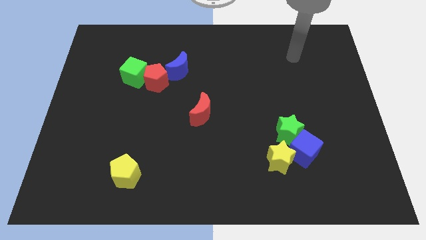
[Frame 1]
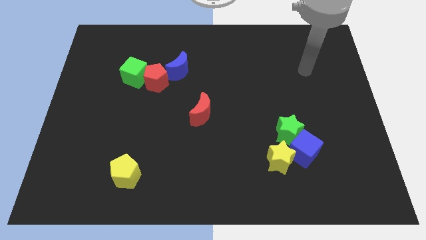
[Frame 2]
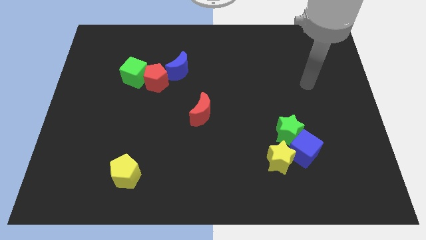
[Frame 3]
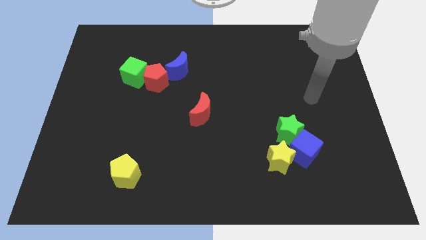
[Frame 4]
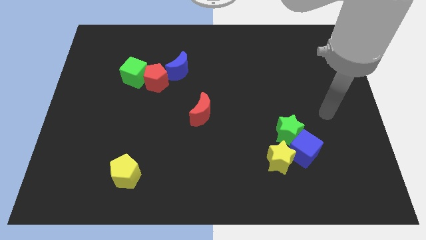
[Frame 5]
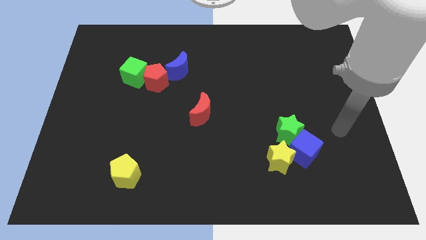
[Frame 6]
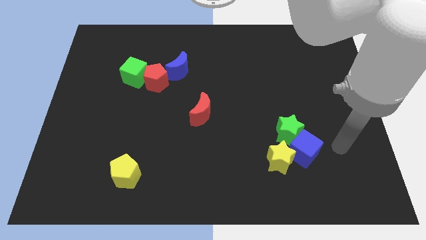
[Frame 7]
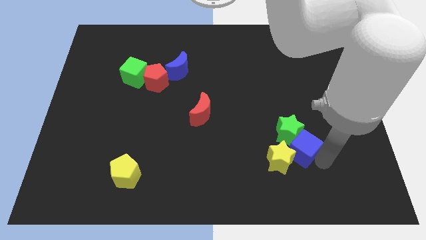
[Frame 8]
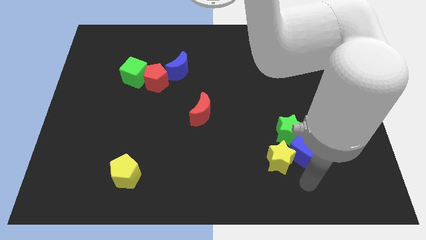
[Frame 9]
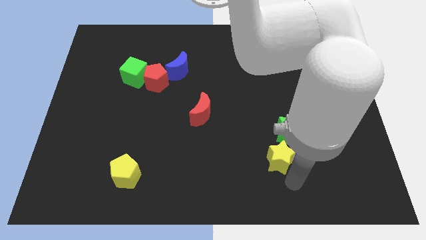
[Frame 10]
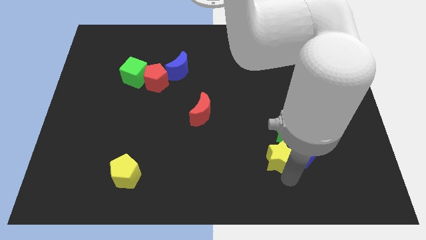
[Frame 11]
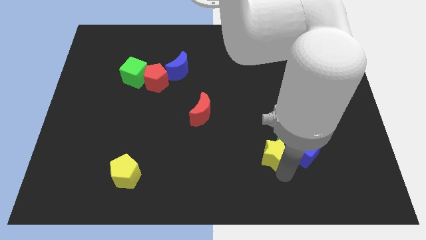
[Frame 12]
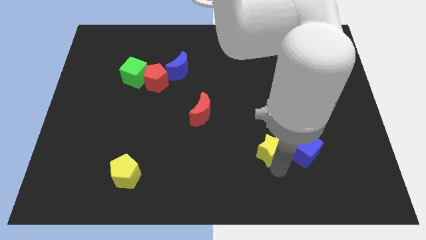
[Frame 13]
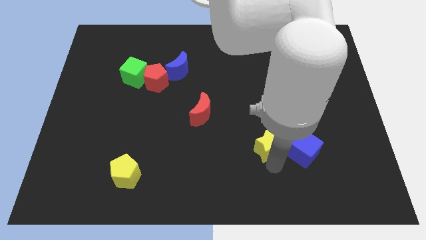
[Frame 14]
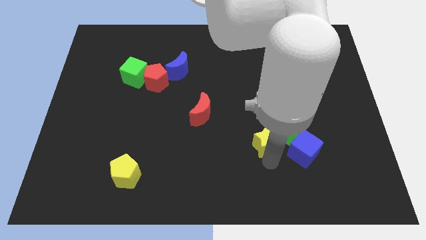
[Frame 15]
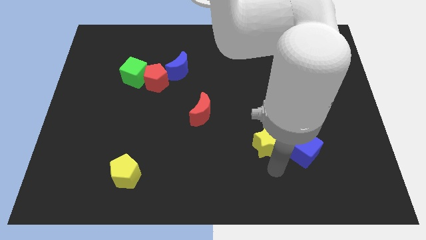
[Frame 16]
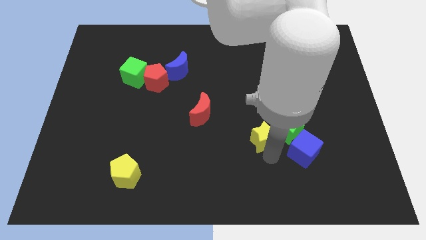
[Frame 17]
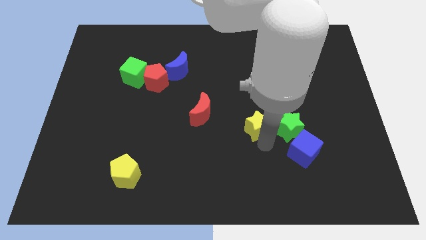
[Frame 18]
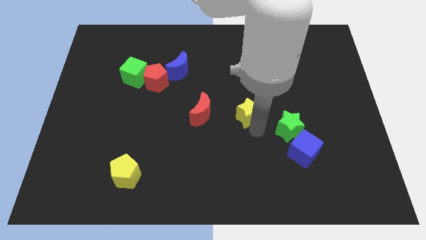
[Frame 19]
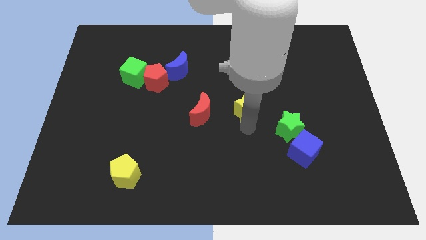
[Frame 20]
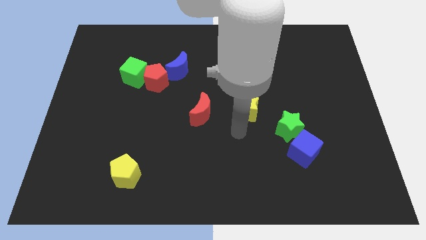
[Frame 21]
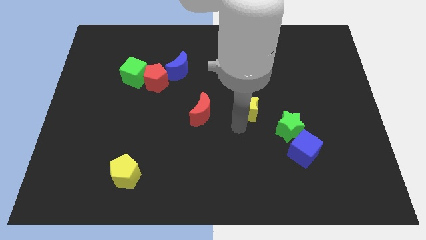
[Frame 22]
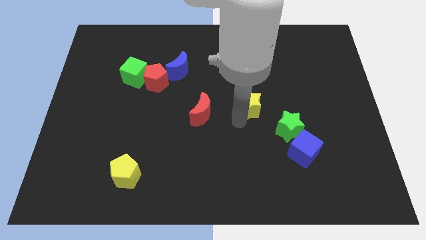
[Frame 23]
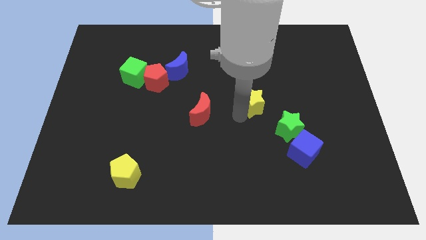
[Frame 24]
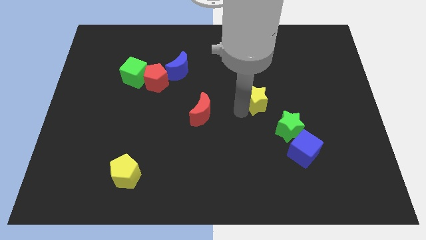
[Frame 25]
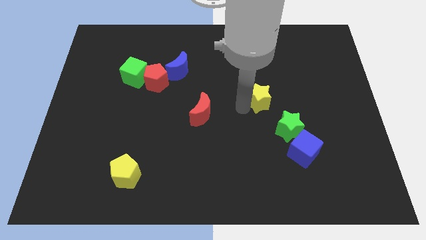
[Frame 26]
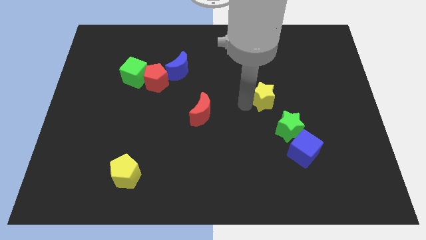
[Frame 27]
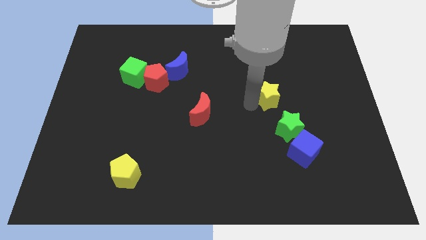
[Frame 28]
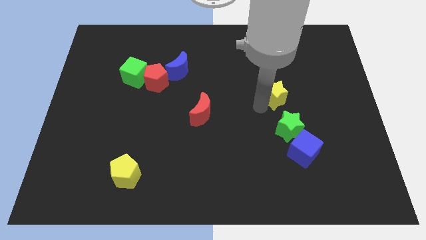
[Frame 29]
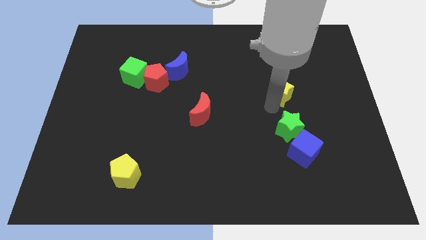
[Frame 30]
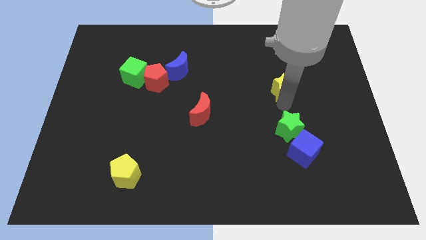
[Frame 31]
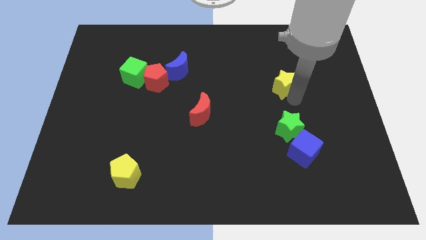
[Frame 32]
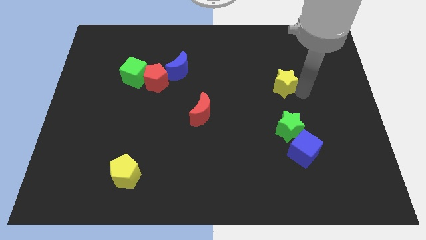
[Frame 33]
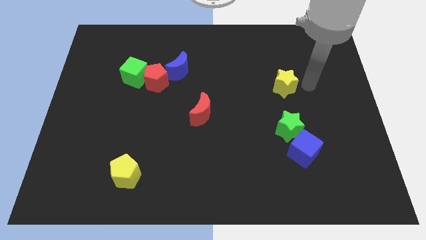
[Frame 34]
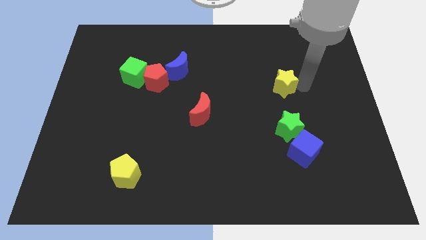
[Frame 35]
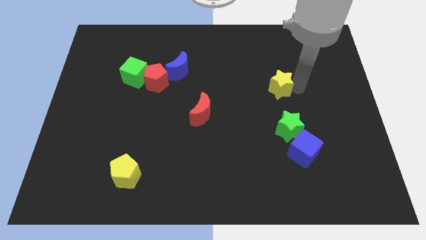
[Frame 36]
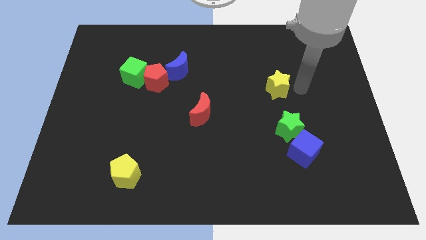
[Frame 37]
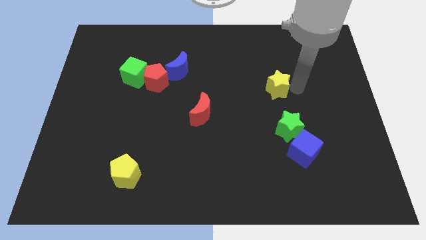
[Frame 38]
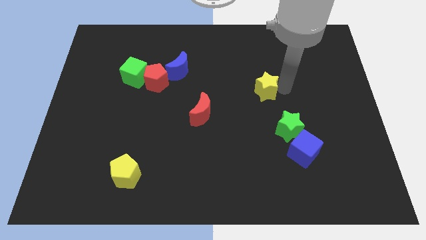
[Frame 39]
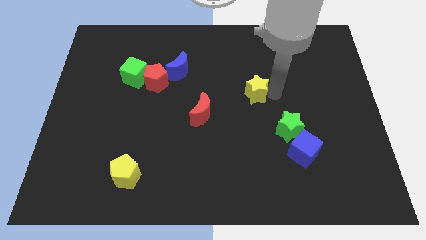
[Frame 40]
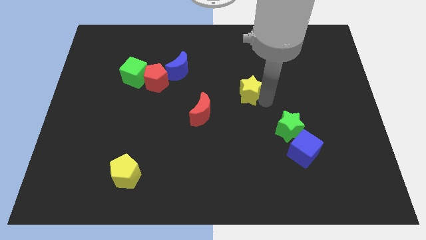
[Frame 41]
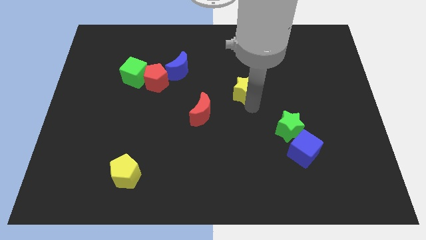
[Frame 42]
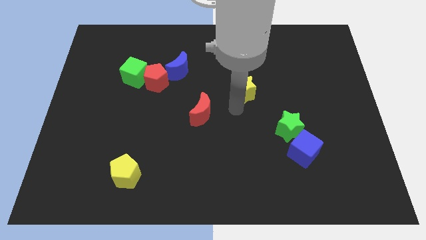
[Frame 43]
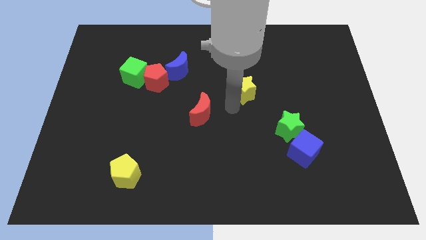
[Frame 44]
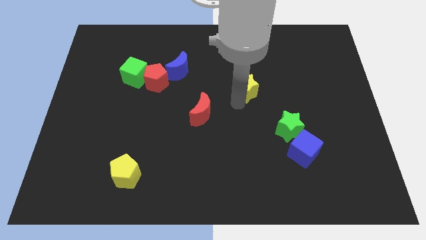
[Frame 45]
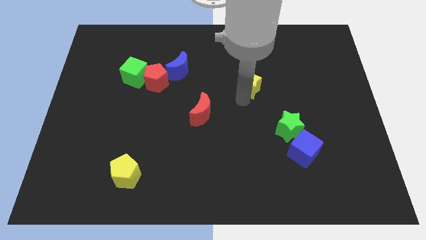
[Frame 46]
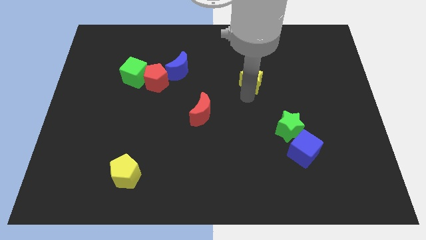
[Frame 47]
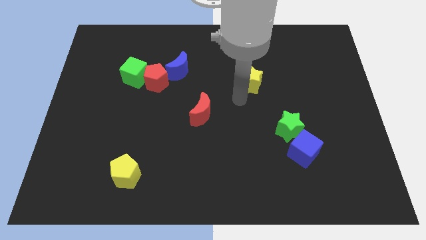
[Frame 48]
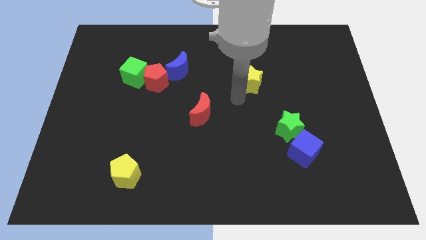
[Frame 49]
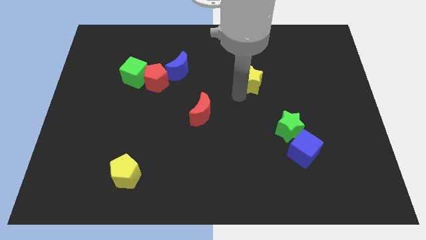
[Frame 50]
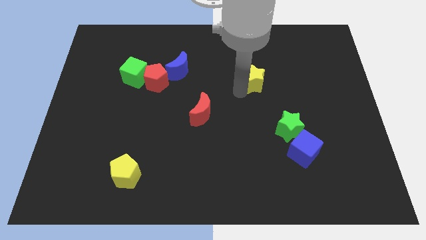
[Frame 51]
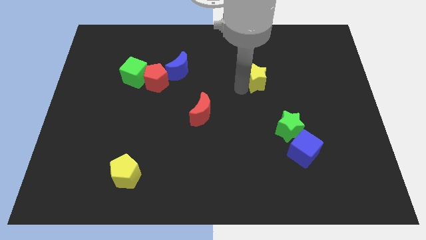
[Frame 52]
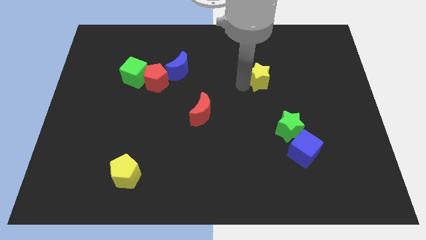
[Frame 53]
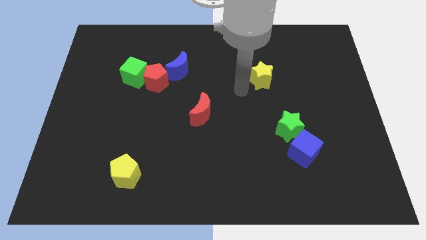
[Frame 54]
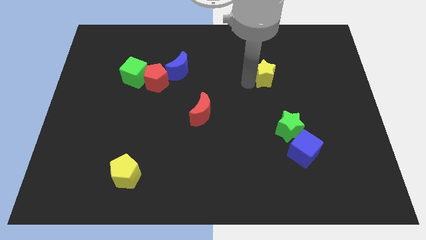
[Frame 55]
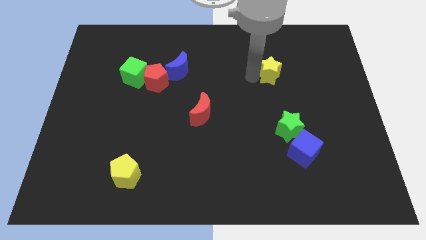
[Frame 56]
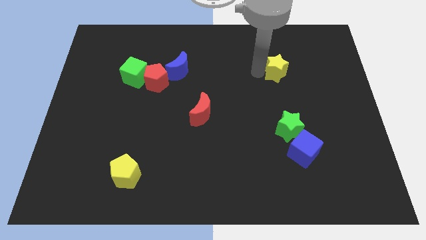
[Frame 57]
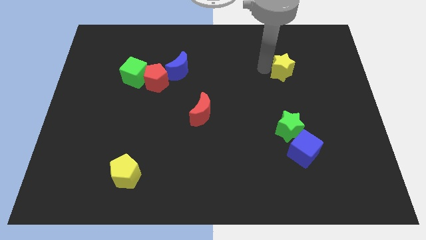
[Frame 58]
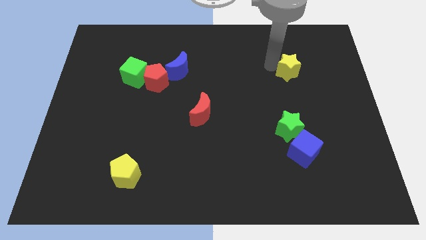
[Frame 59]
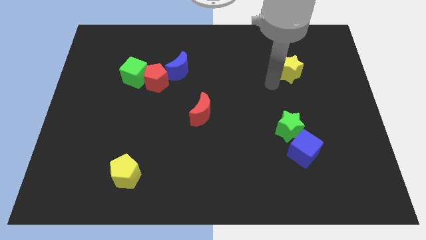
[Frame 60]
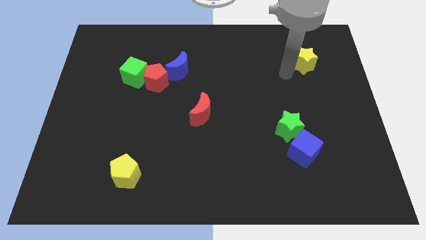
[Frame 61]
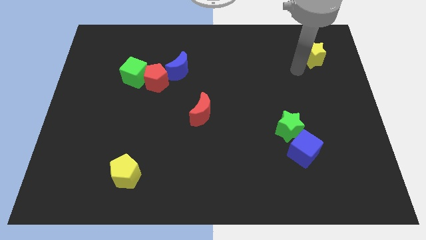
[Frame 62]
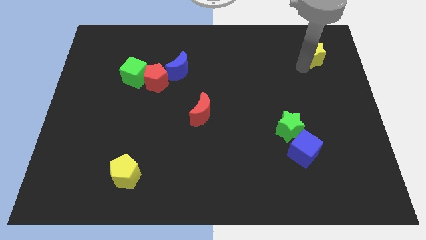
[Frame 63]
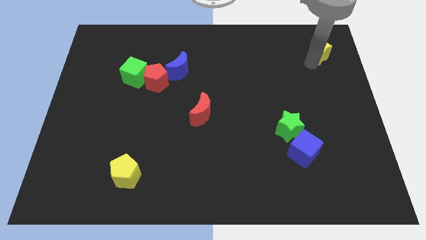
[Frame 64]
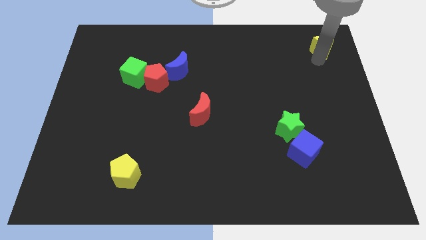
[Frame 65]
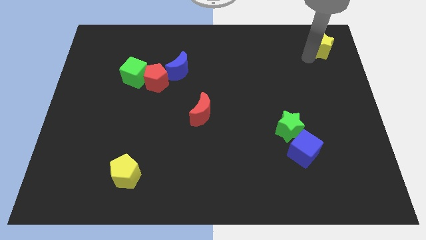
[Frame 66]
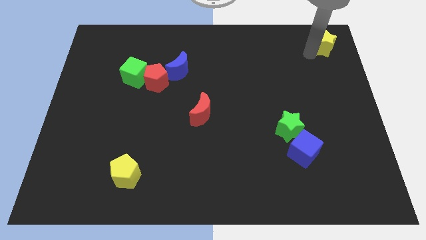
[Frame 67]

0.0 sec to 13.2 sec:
slide the yellow star to the upper right corner

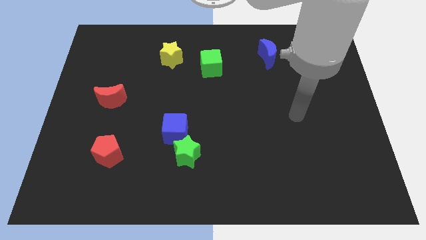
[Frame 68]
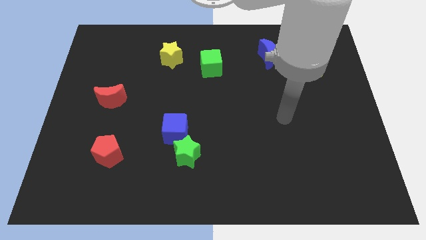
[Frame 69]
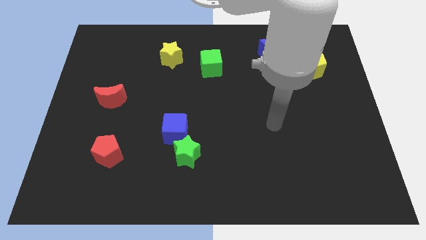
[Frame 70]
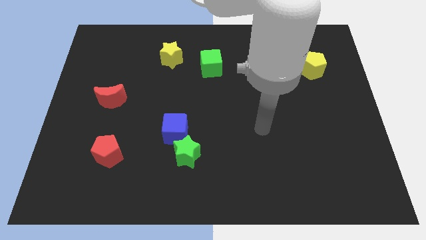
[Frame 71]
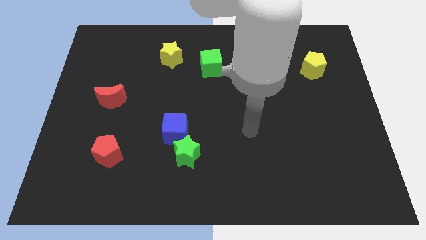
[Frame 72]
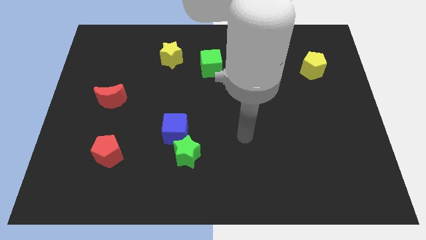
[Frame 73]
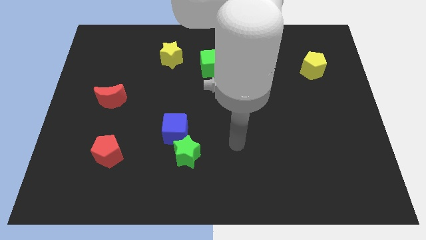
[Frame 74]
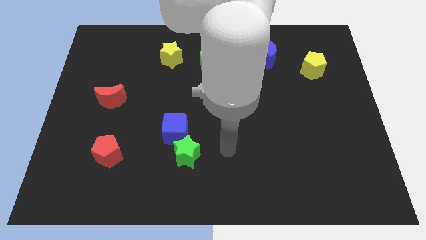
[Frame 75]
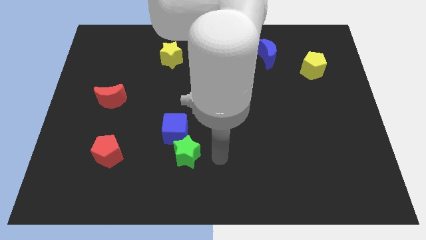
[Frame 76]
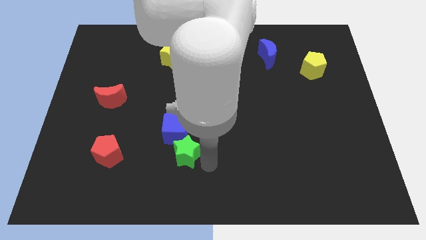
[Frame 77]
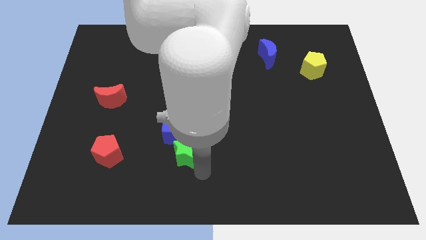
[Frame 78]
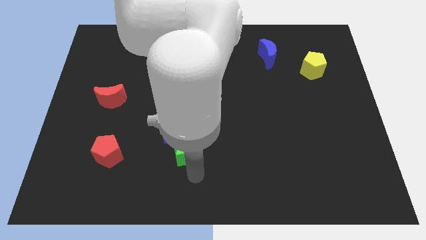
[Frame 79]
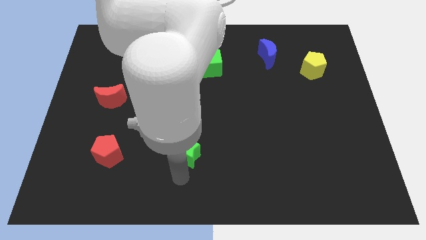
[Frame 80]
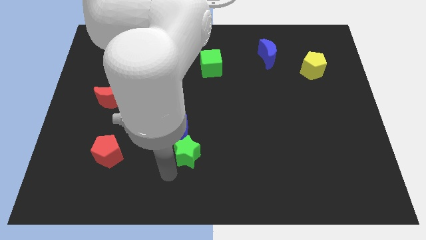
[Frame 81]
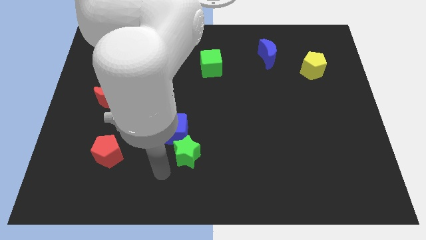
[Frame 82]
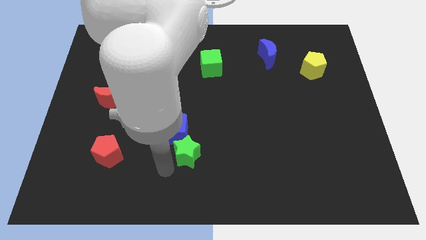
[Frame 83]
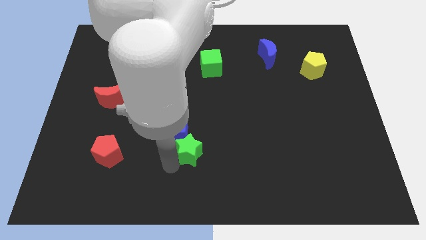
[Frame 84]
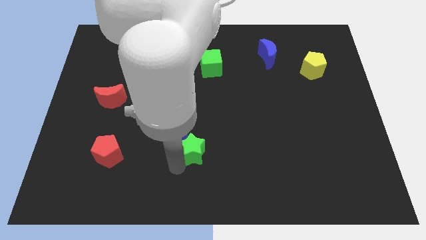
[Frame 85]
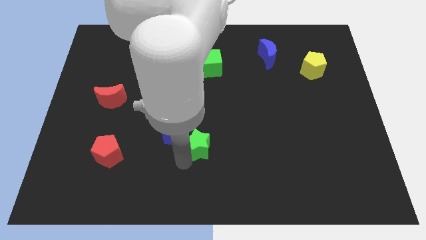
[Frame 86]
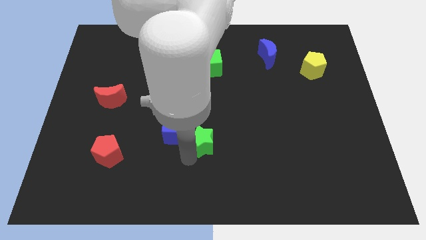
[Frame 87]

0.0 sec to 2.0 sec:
push the green star to the center of the board
